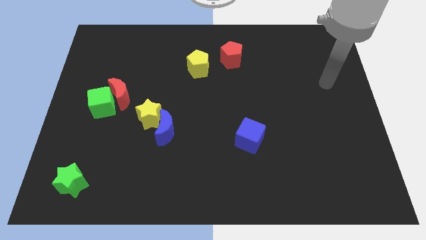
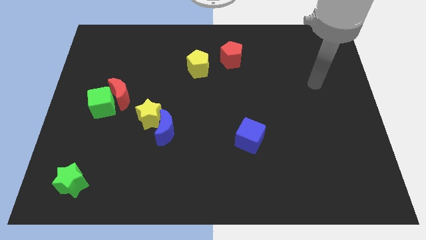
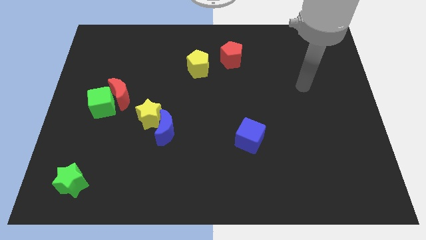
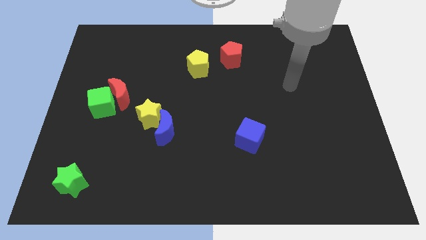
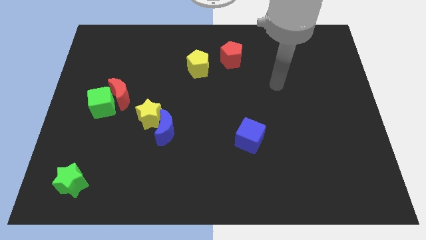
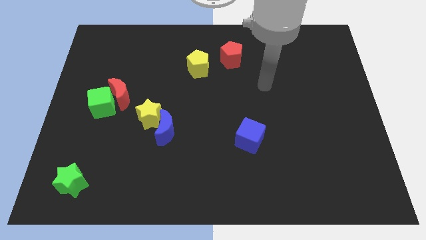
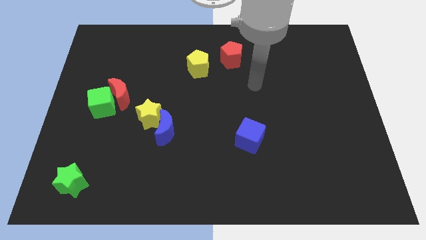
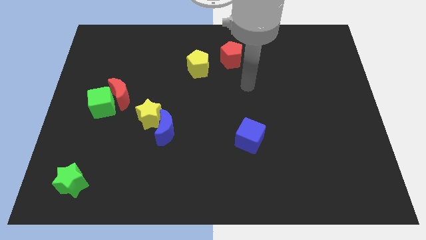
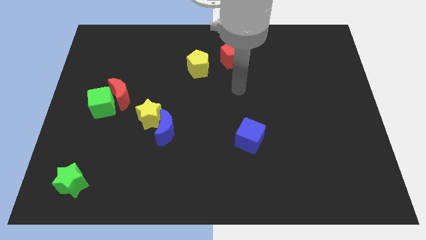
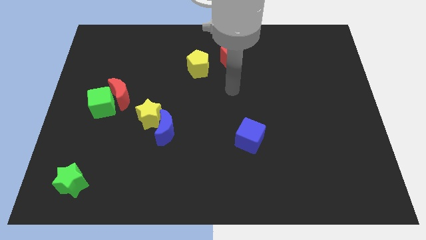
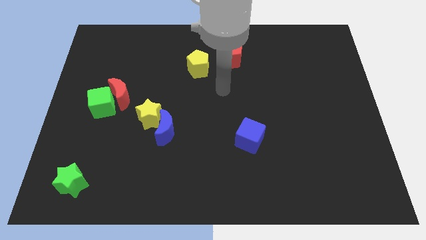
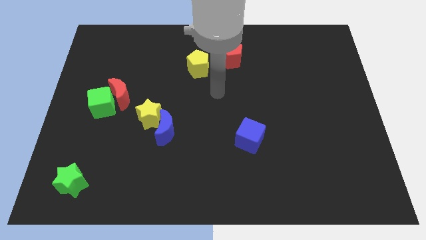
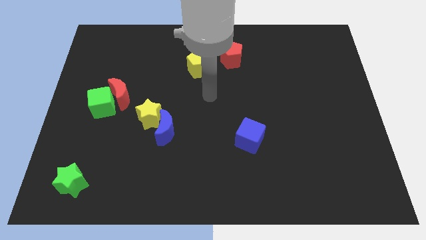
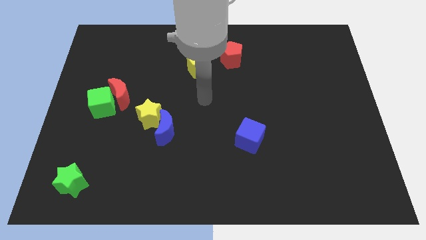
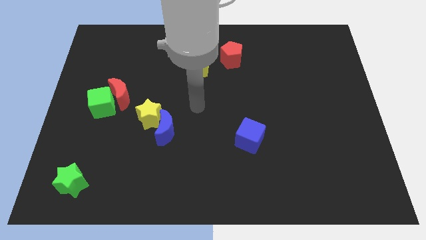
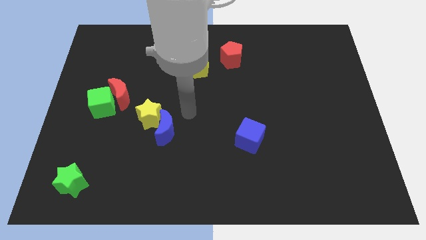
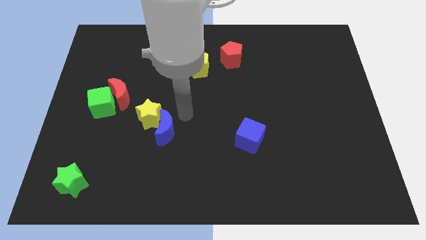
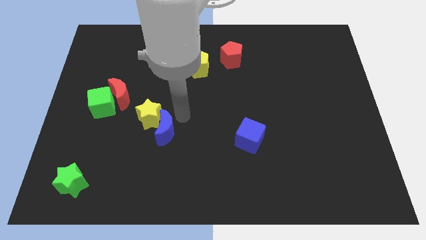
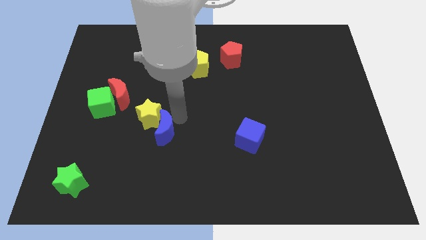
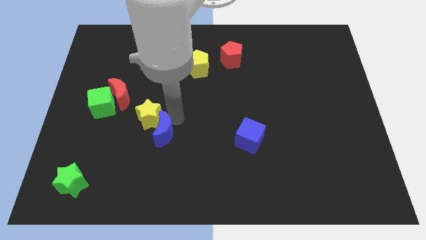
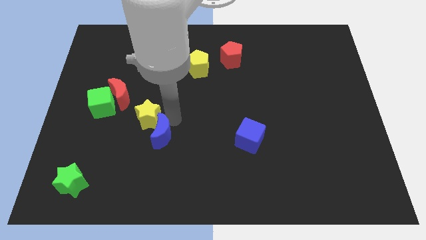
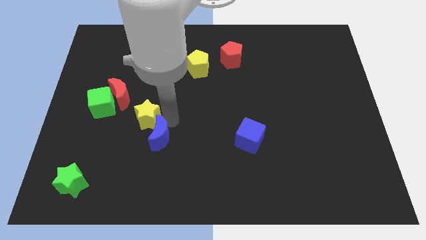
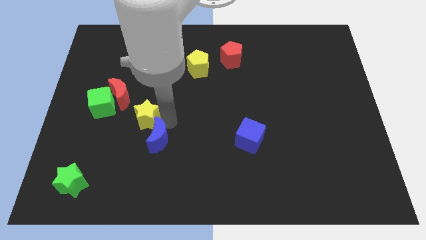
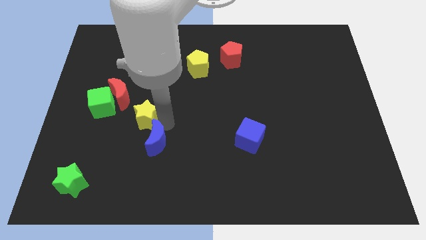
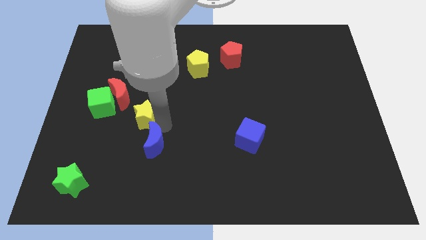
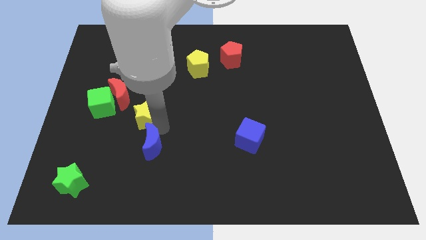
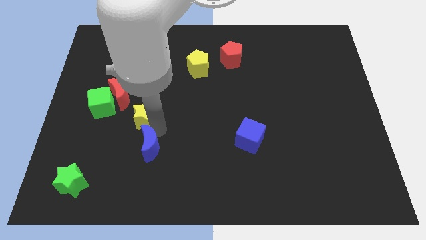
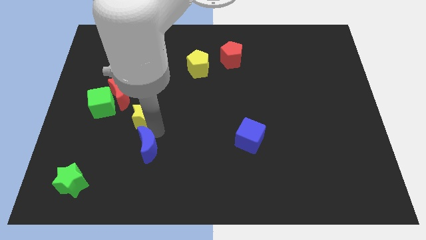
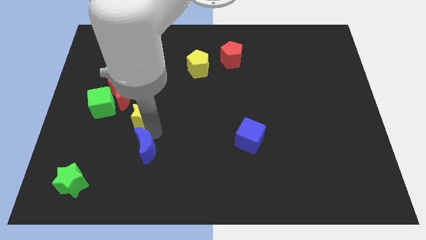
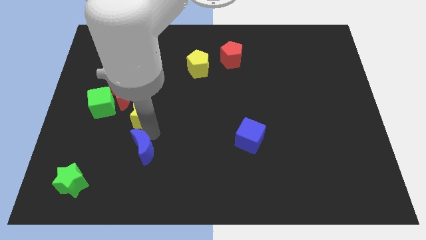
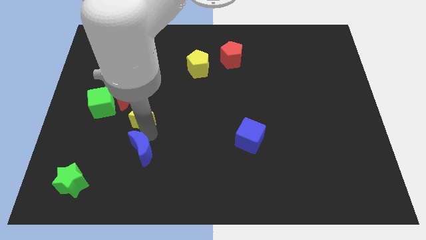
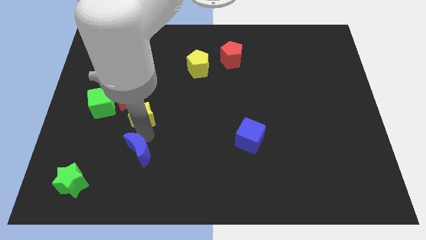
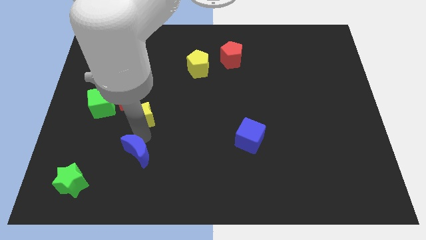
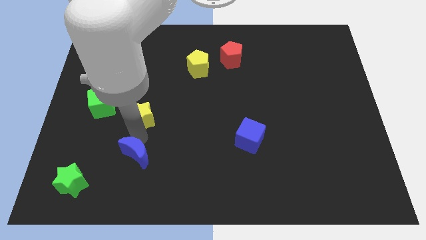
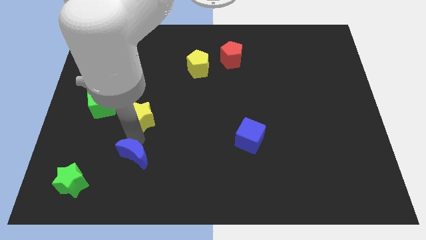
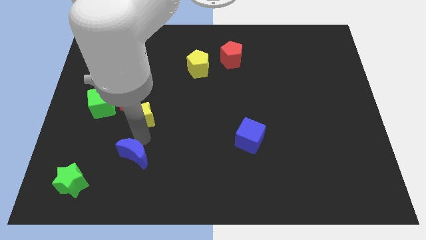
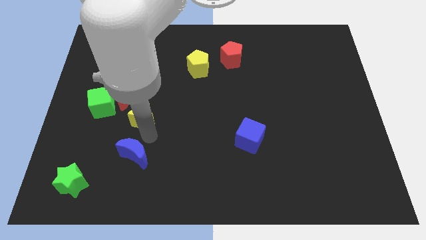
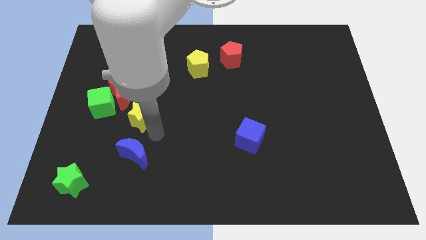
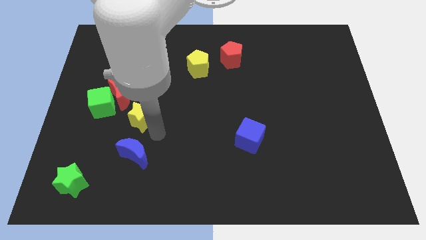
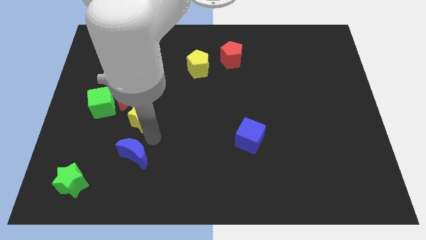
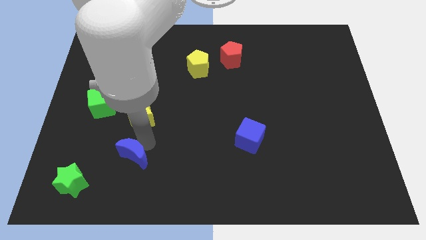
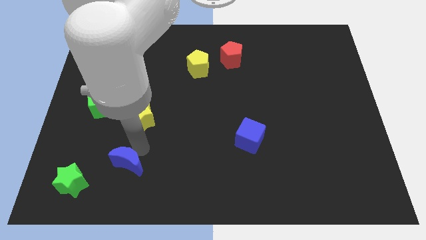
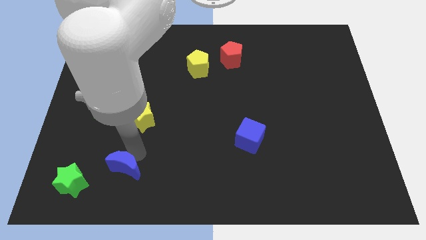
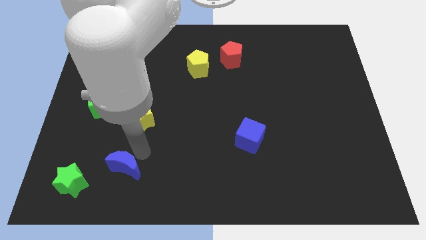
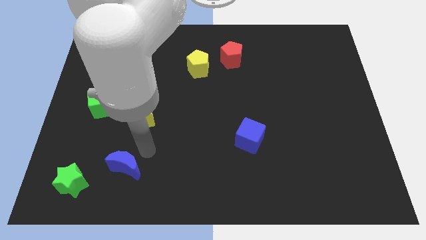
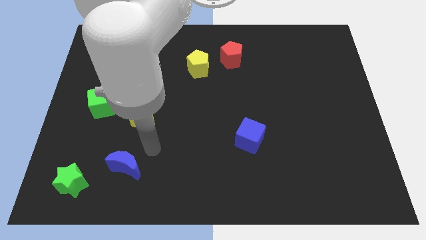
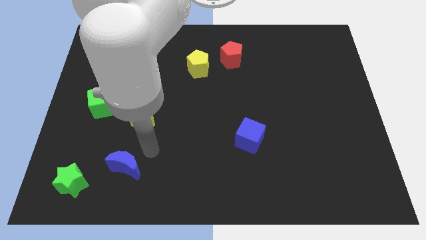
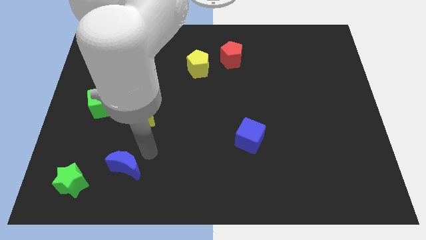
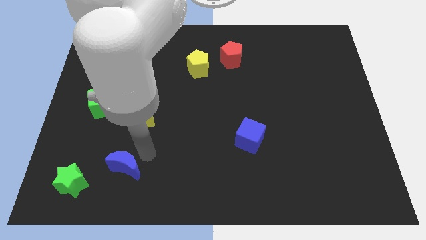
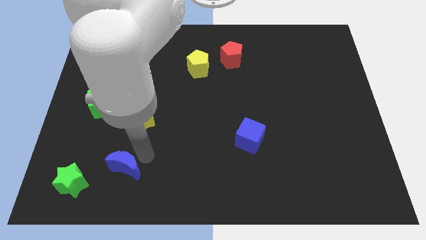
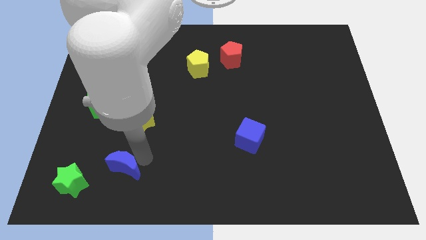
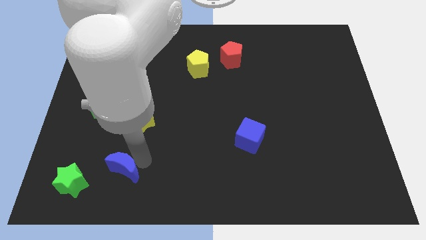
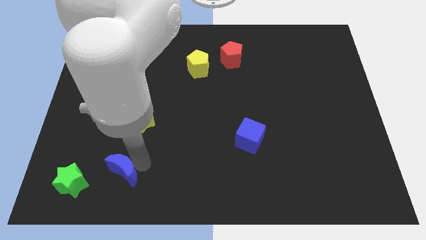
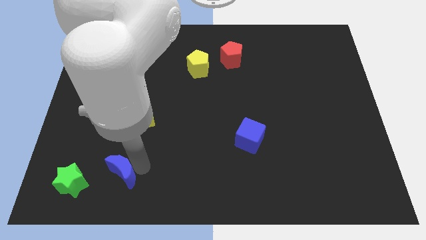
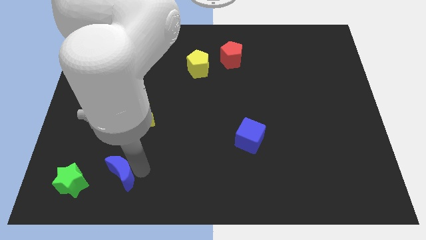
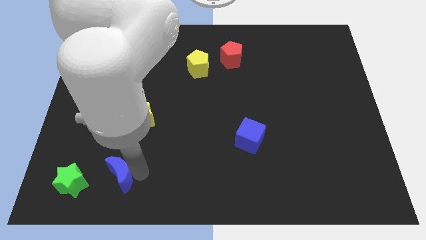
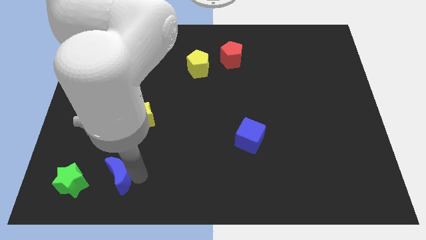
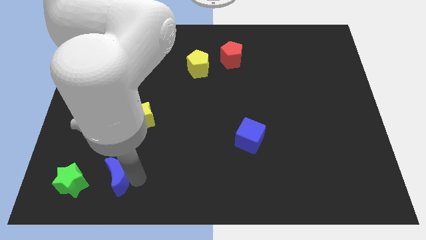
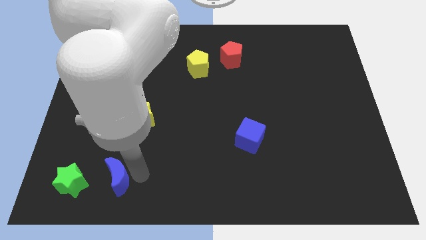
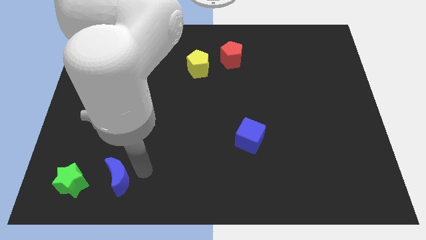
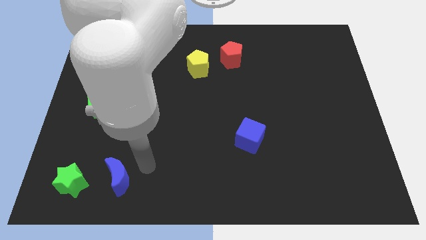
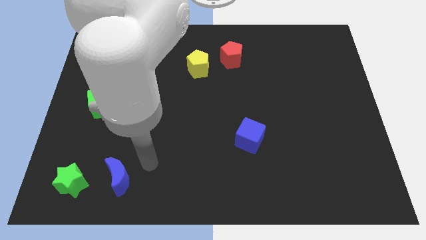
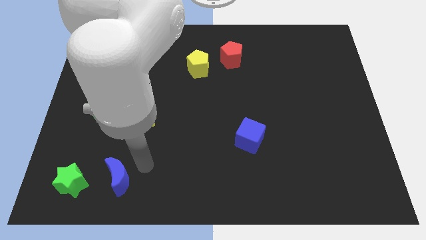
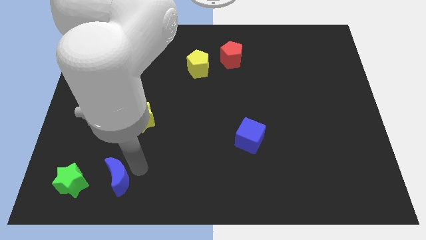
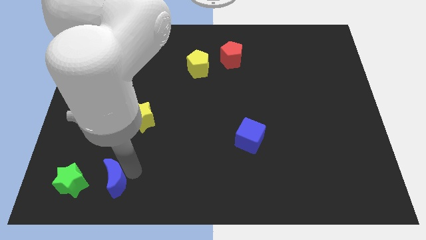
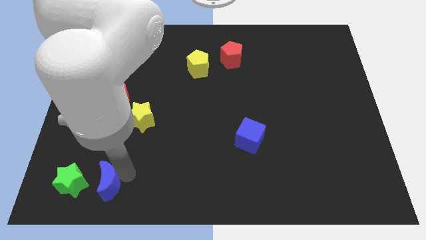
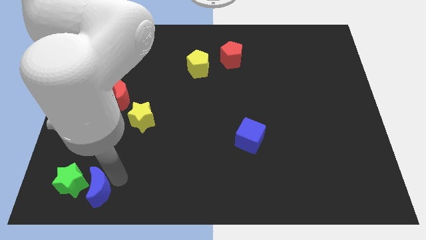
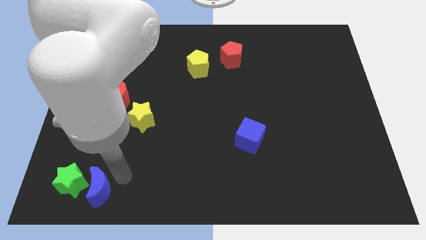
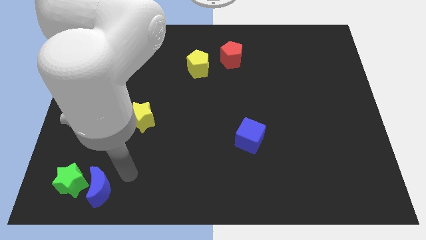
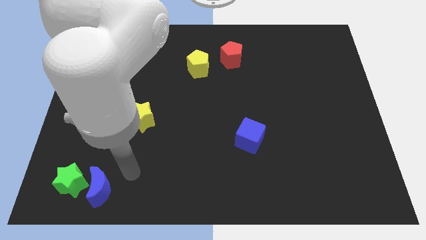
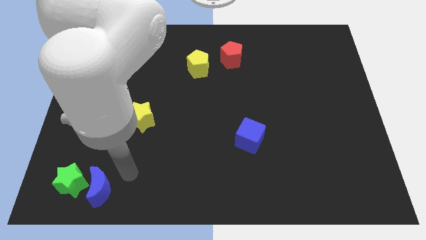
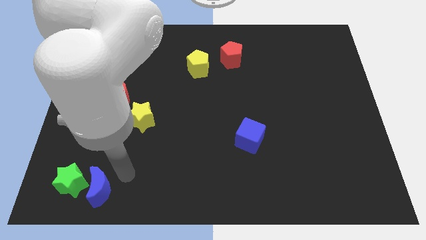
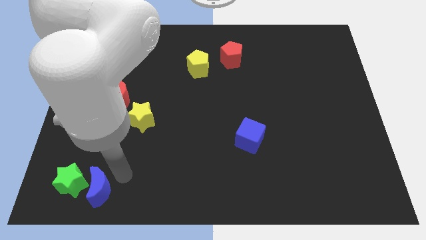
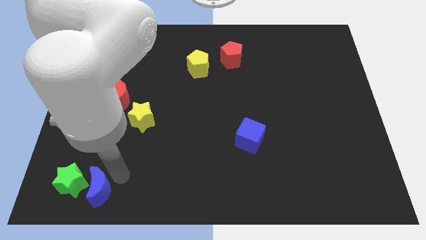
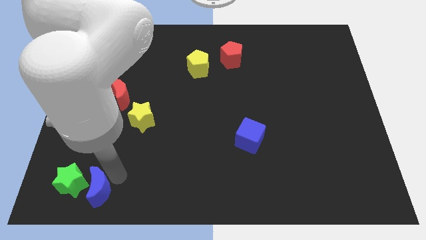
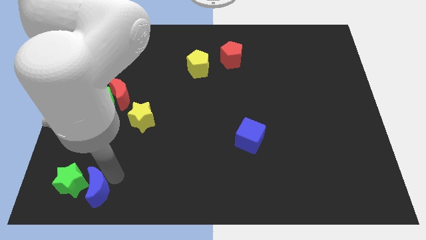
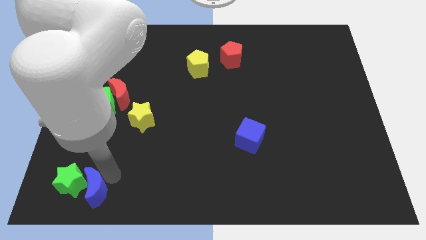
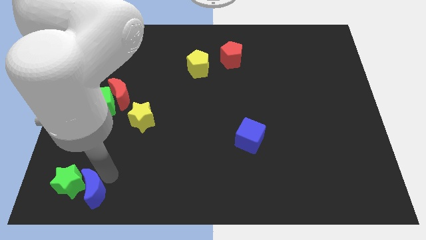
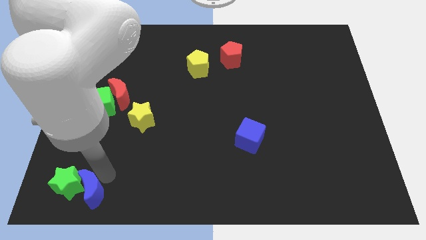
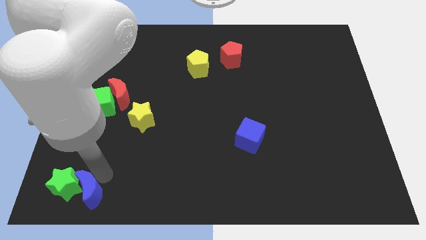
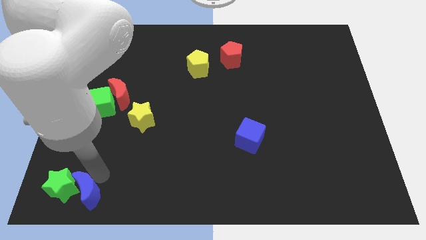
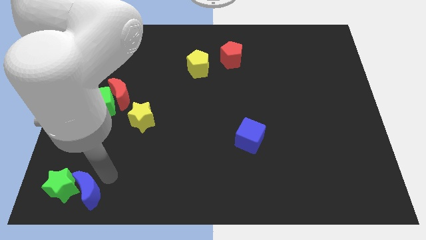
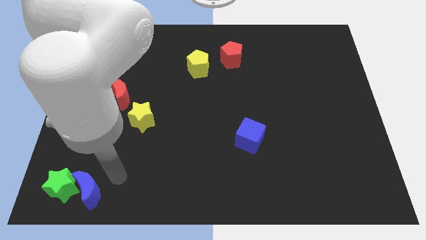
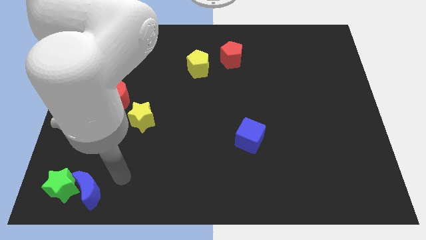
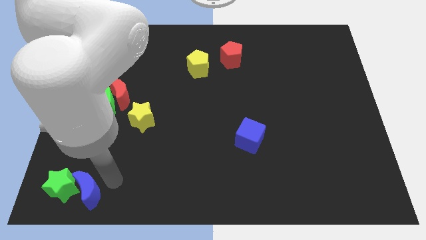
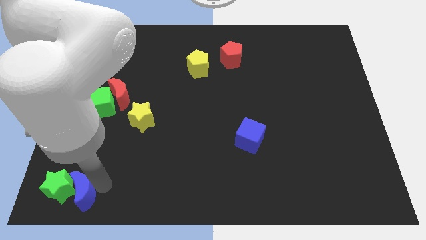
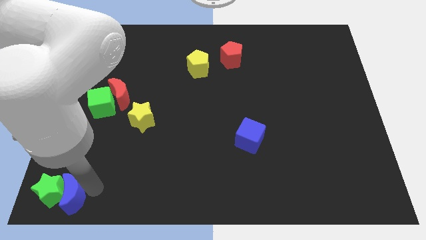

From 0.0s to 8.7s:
put the blue moon to the bottom left
